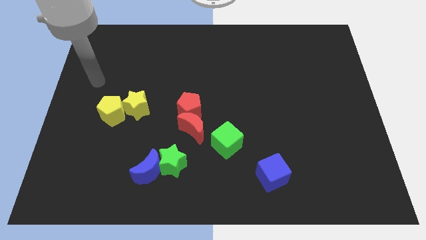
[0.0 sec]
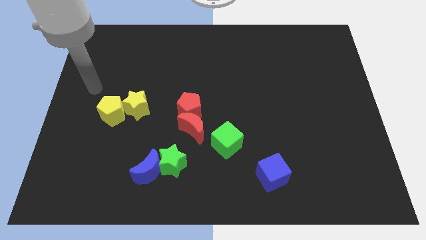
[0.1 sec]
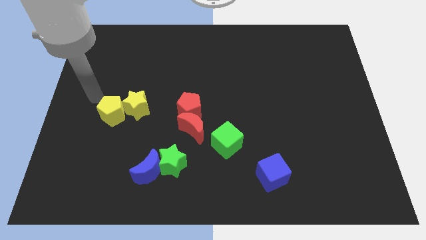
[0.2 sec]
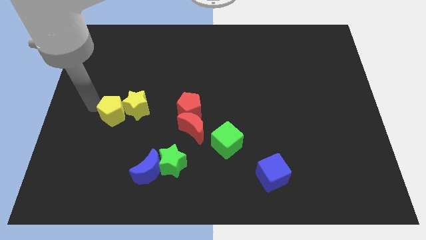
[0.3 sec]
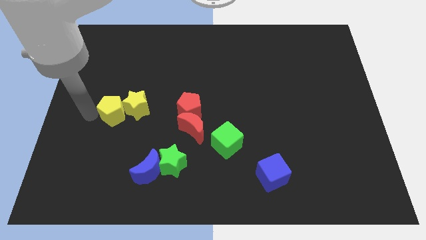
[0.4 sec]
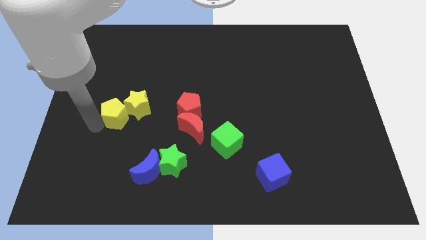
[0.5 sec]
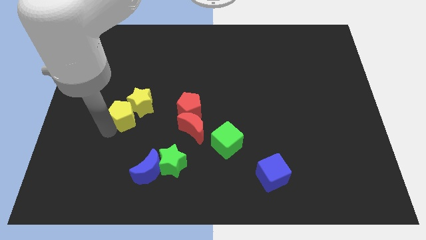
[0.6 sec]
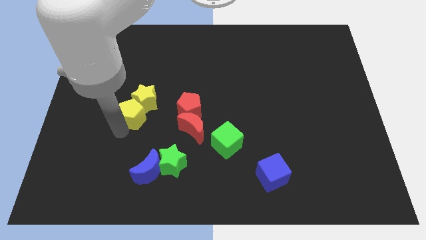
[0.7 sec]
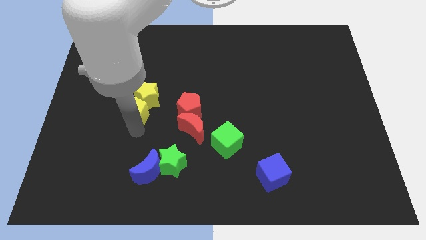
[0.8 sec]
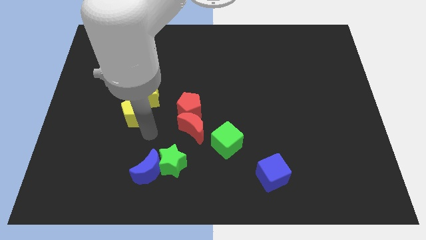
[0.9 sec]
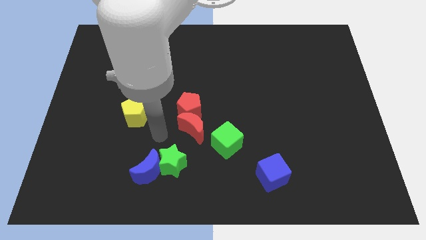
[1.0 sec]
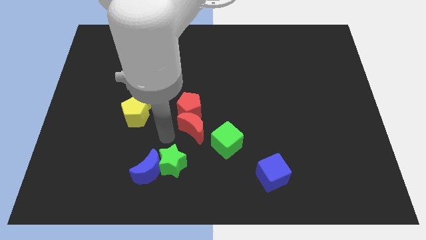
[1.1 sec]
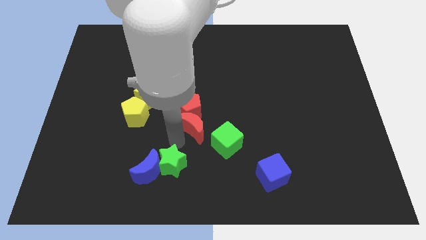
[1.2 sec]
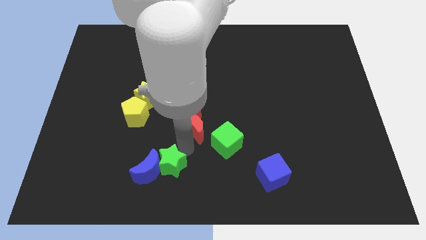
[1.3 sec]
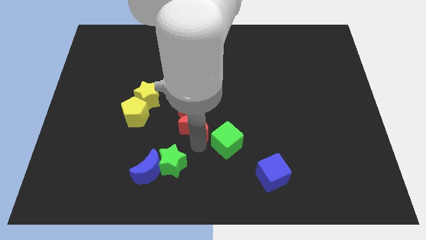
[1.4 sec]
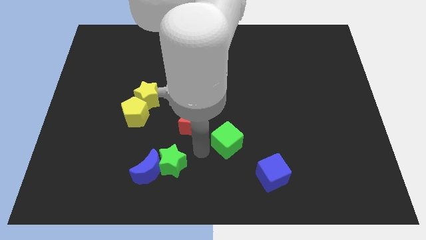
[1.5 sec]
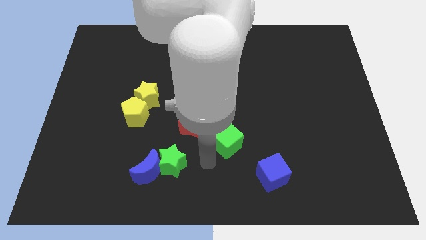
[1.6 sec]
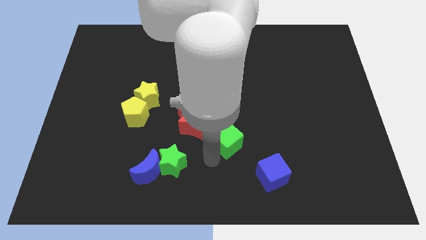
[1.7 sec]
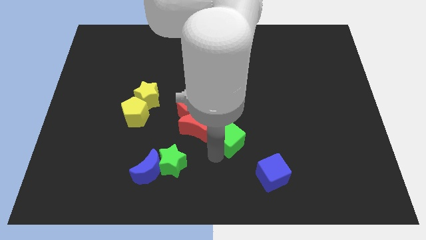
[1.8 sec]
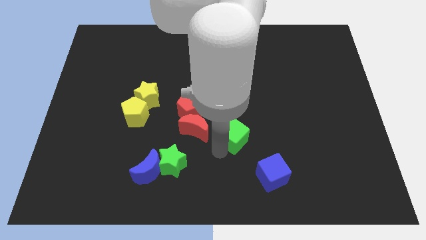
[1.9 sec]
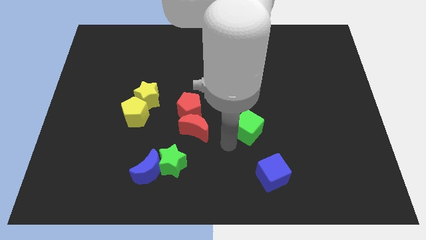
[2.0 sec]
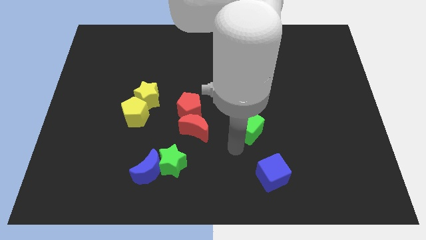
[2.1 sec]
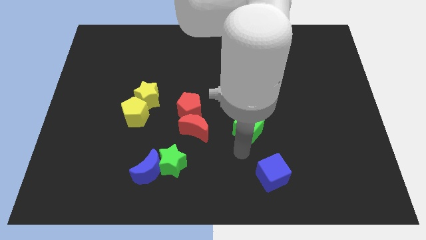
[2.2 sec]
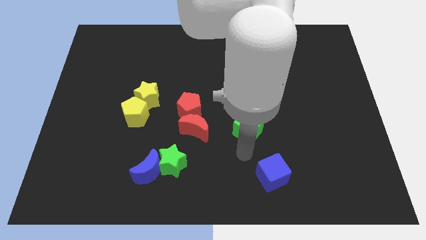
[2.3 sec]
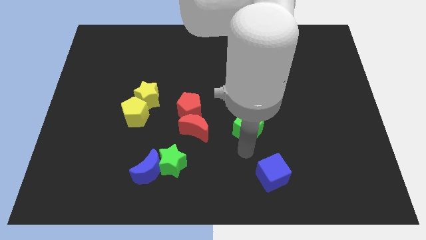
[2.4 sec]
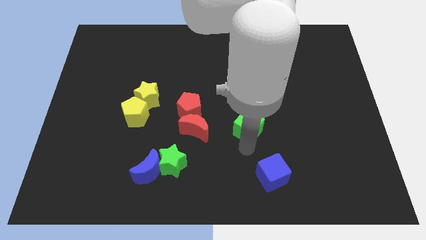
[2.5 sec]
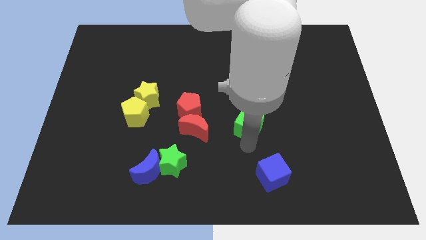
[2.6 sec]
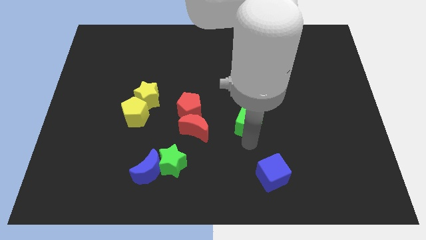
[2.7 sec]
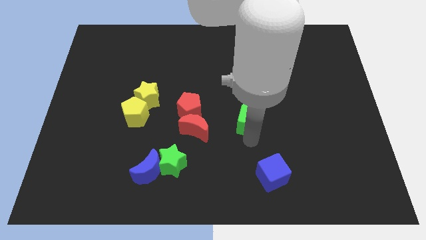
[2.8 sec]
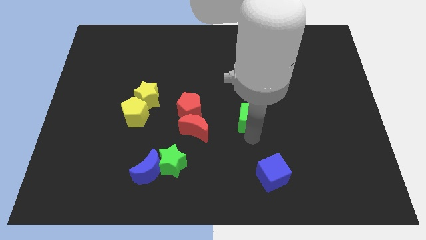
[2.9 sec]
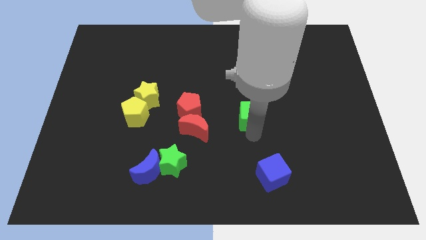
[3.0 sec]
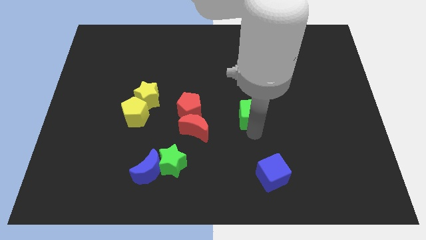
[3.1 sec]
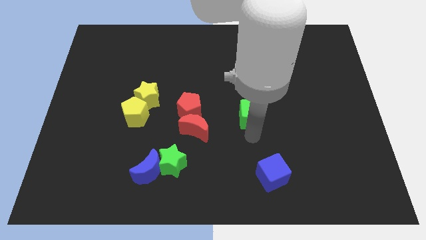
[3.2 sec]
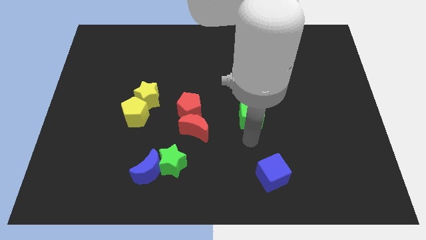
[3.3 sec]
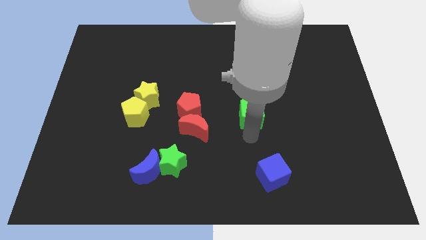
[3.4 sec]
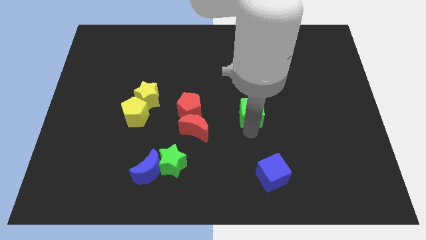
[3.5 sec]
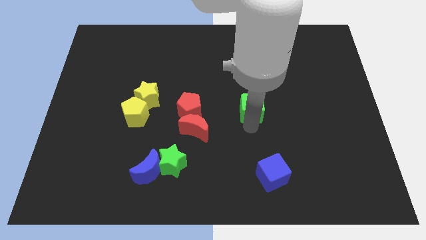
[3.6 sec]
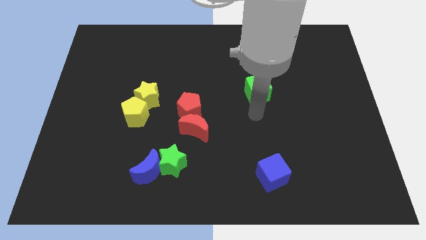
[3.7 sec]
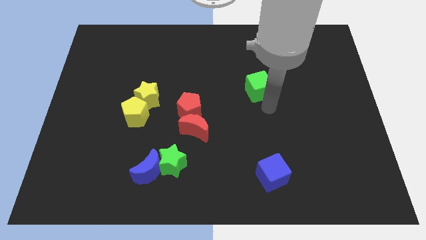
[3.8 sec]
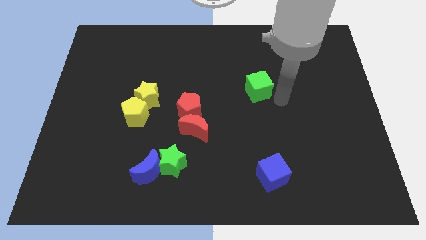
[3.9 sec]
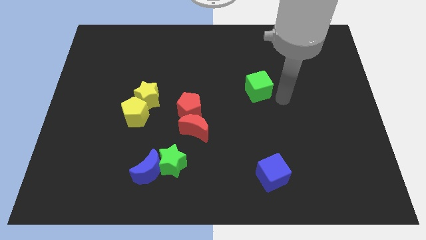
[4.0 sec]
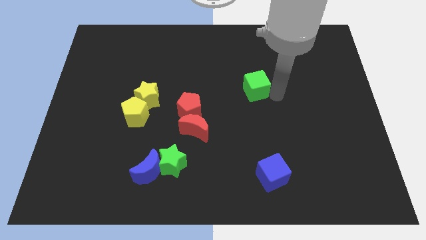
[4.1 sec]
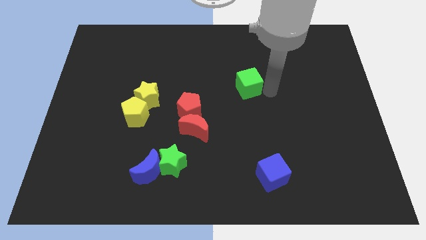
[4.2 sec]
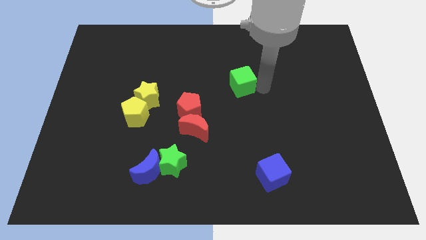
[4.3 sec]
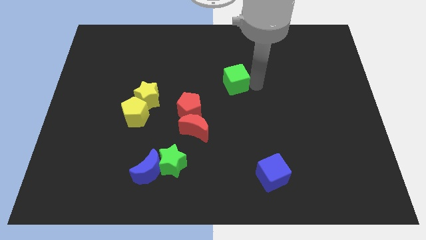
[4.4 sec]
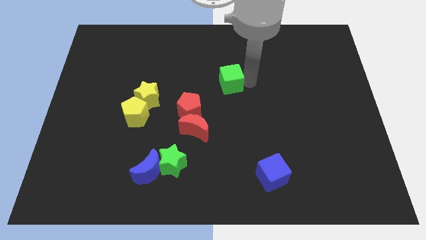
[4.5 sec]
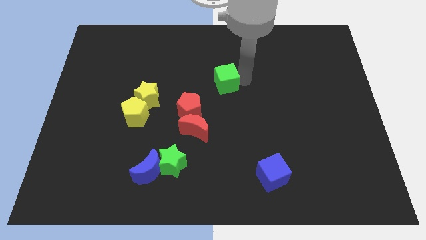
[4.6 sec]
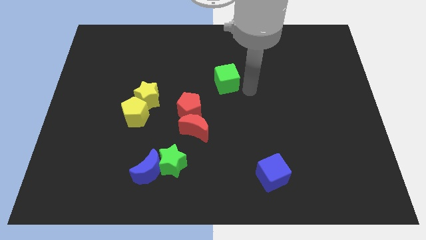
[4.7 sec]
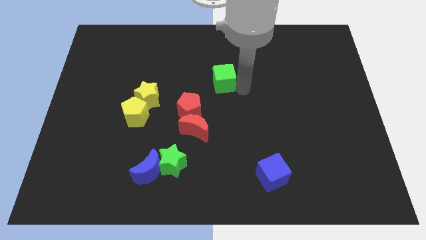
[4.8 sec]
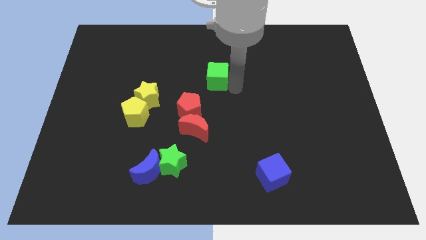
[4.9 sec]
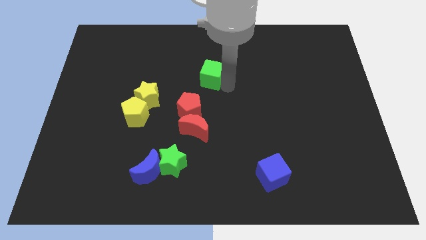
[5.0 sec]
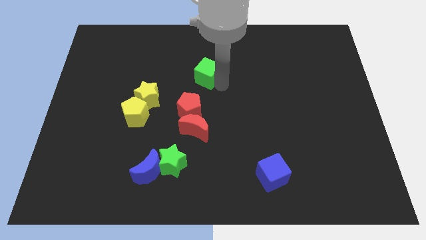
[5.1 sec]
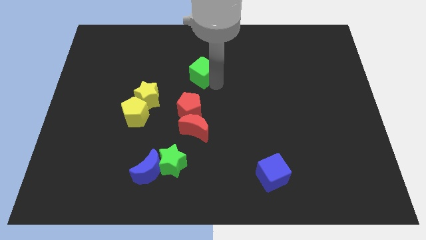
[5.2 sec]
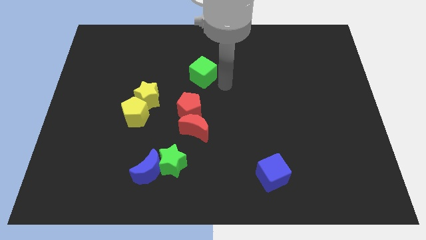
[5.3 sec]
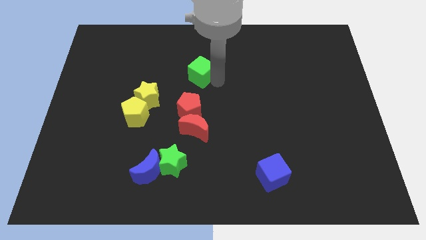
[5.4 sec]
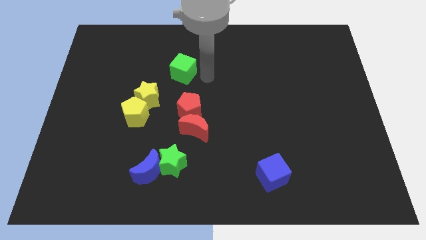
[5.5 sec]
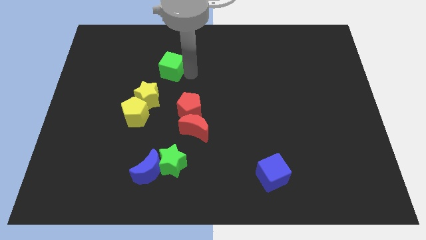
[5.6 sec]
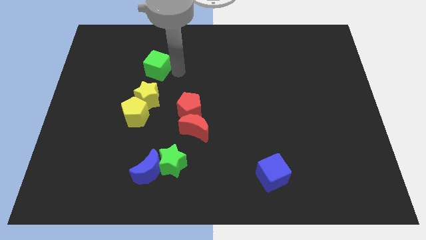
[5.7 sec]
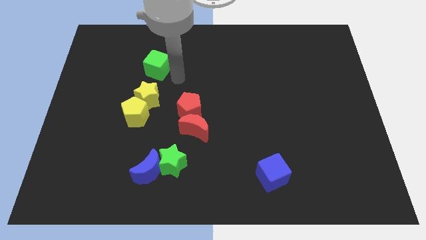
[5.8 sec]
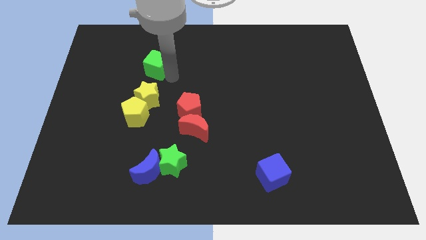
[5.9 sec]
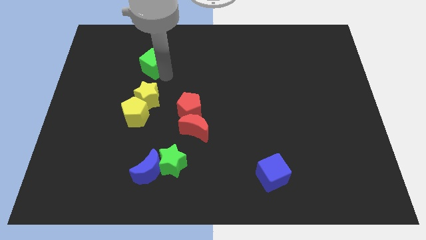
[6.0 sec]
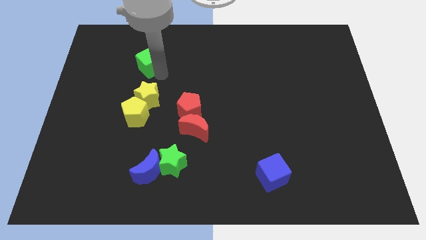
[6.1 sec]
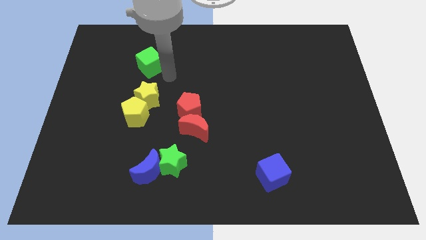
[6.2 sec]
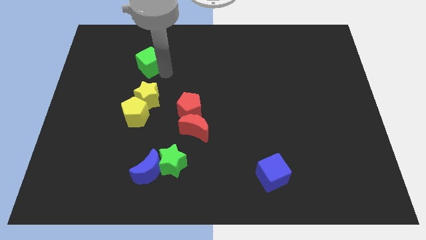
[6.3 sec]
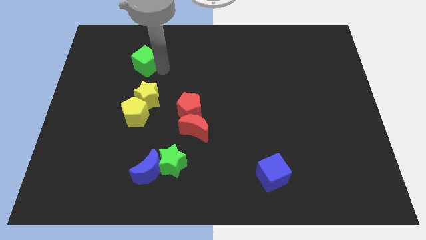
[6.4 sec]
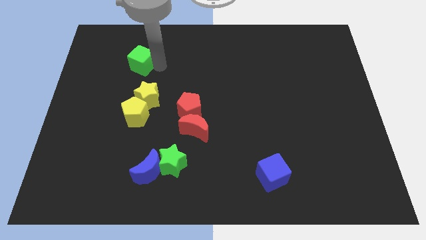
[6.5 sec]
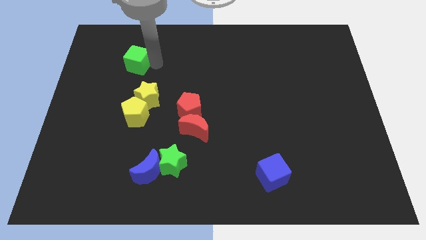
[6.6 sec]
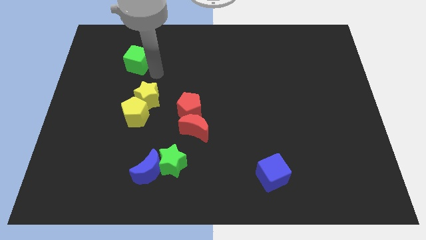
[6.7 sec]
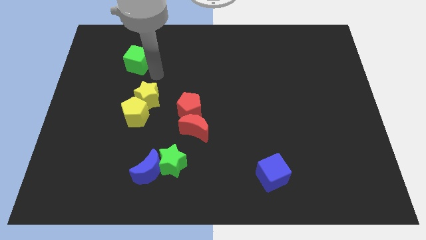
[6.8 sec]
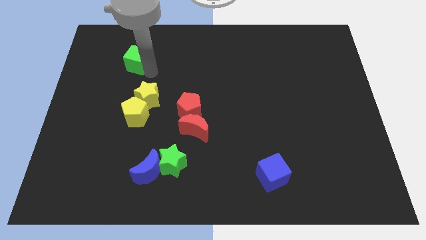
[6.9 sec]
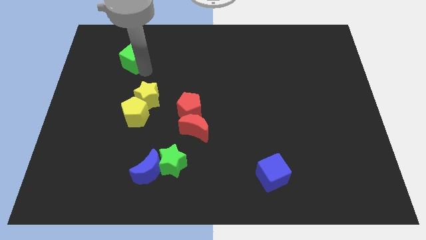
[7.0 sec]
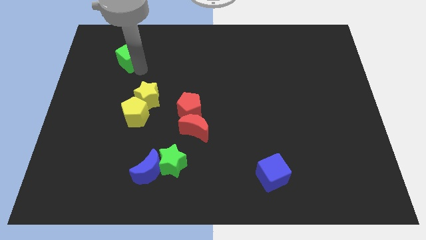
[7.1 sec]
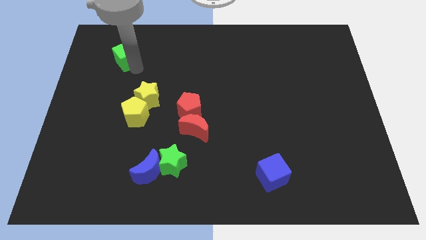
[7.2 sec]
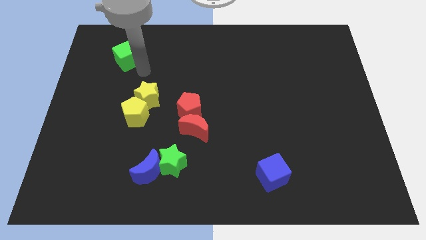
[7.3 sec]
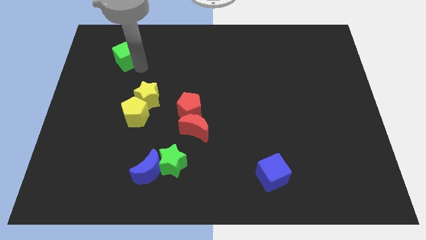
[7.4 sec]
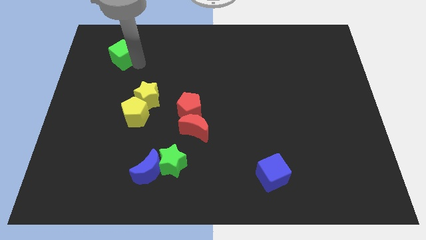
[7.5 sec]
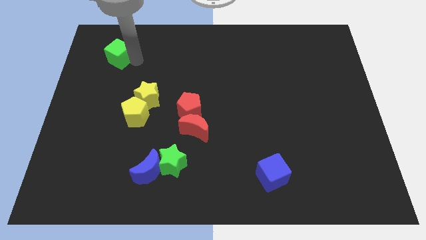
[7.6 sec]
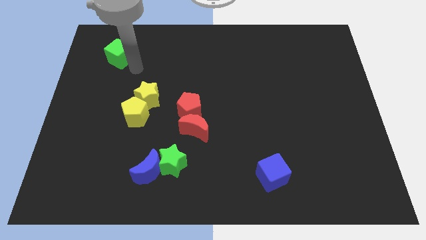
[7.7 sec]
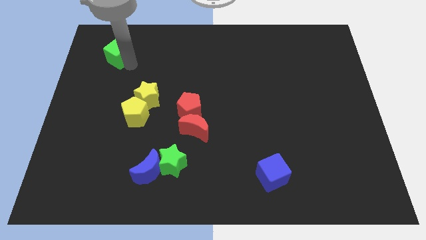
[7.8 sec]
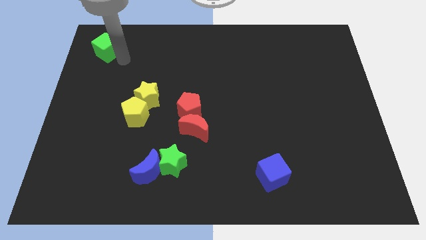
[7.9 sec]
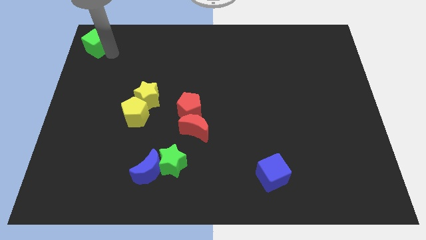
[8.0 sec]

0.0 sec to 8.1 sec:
push the green cube to the top left of the board
